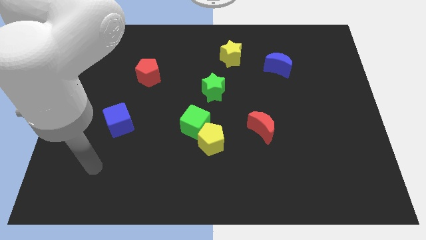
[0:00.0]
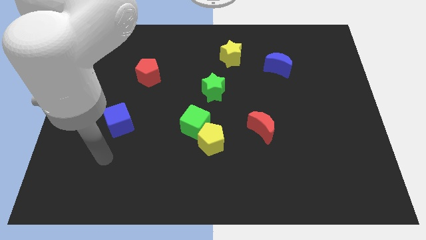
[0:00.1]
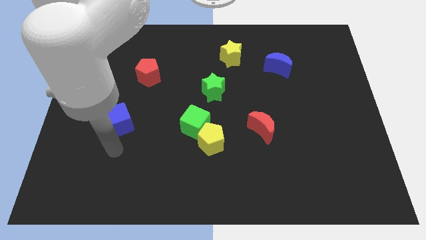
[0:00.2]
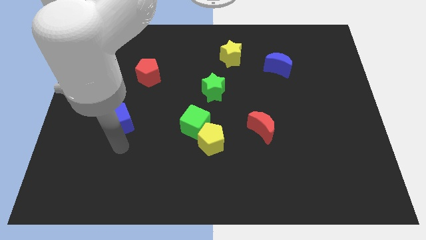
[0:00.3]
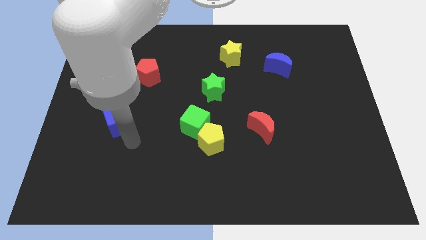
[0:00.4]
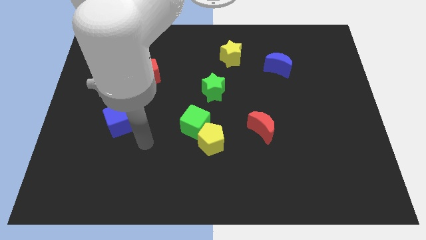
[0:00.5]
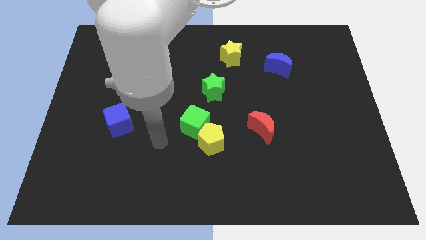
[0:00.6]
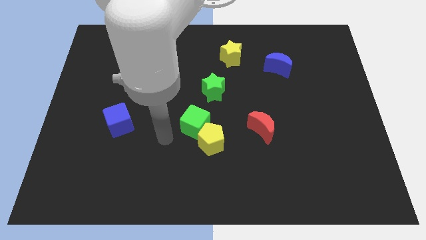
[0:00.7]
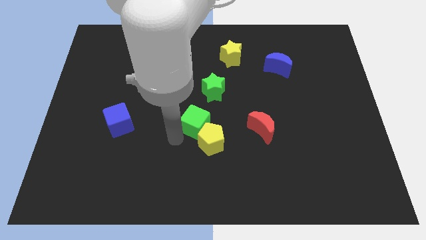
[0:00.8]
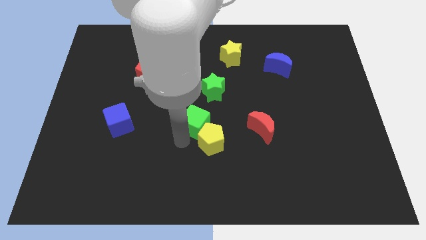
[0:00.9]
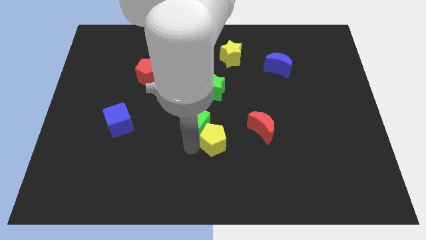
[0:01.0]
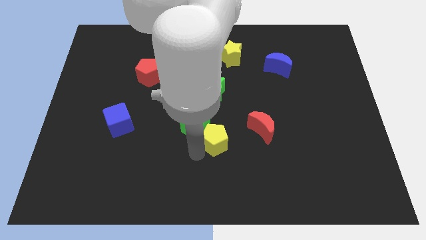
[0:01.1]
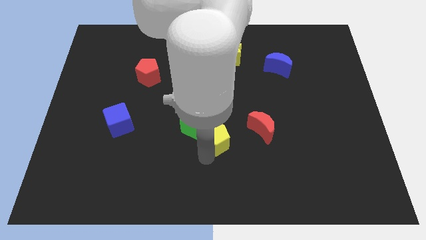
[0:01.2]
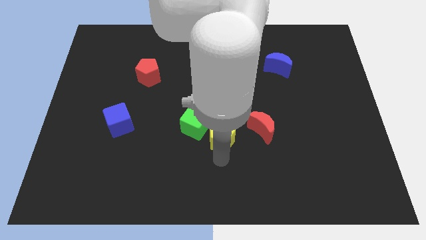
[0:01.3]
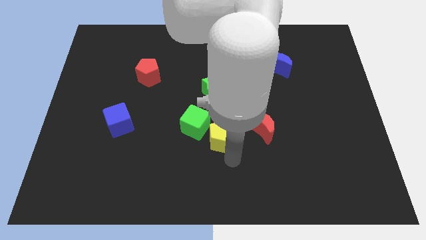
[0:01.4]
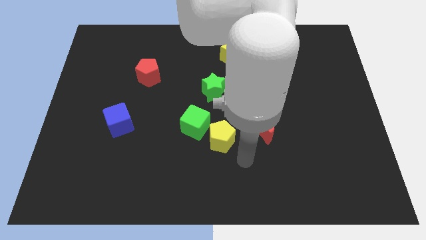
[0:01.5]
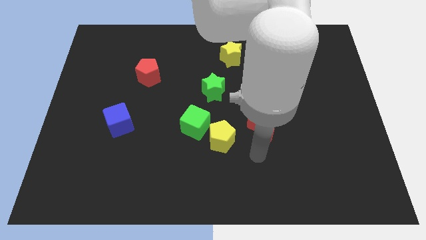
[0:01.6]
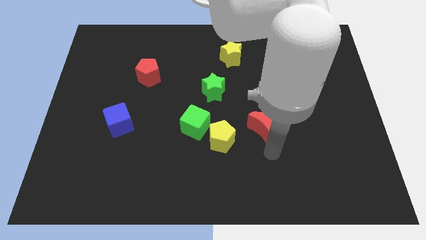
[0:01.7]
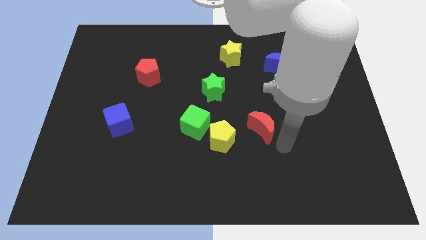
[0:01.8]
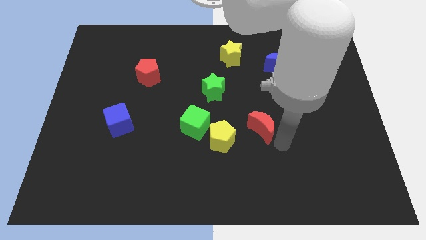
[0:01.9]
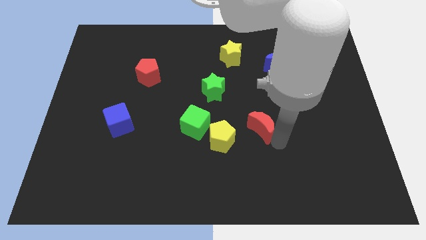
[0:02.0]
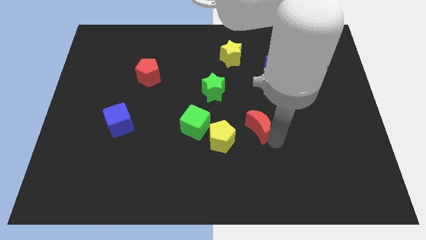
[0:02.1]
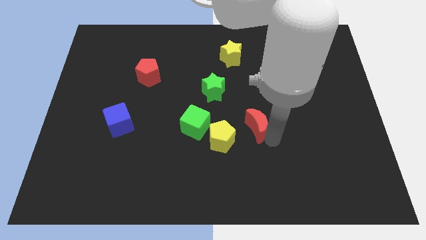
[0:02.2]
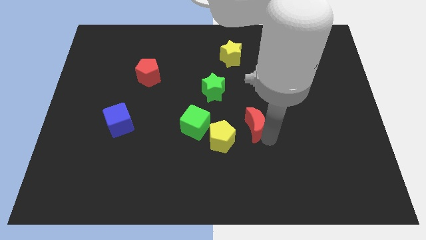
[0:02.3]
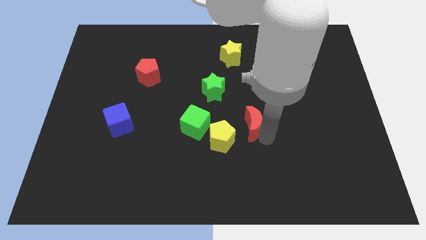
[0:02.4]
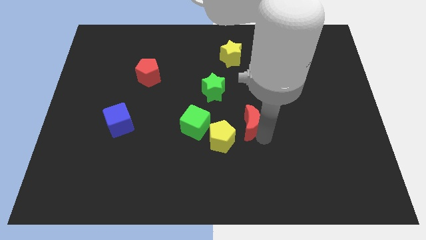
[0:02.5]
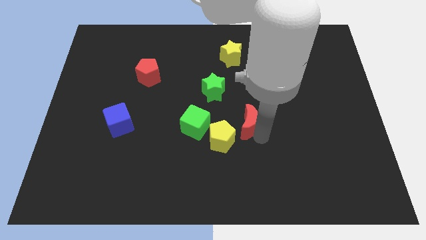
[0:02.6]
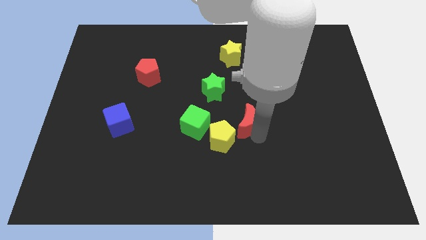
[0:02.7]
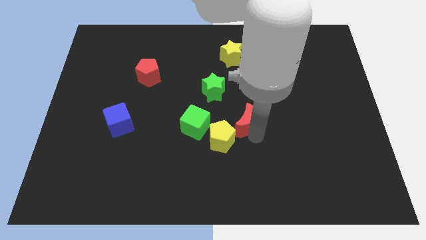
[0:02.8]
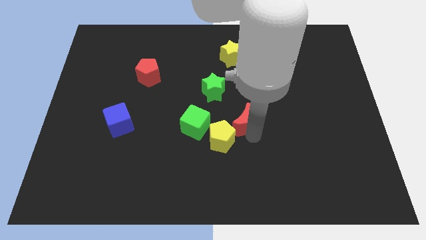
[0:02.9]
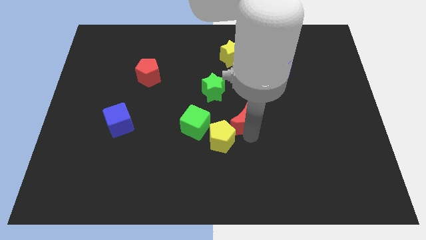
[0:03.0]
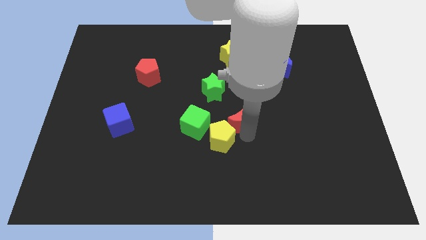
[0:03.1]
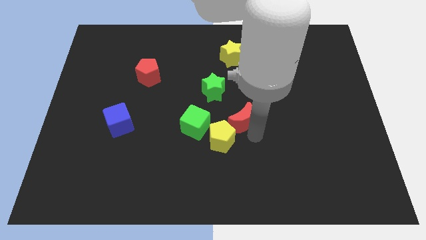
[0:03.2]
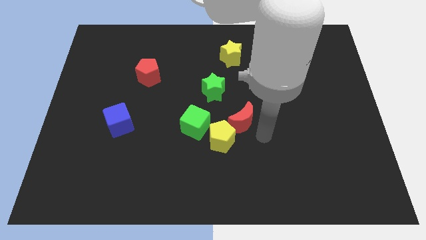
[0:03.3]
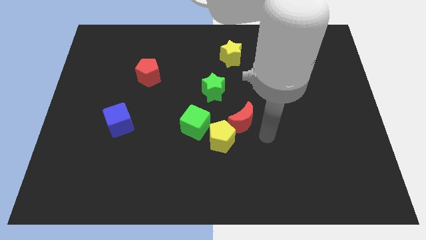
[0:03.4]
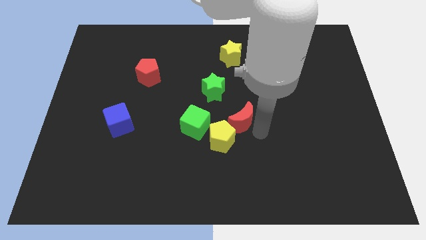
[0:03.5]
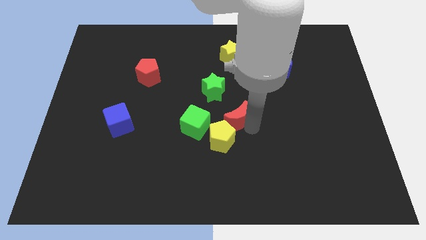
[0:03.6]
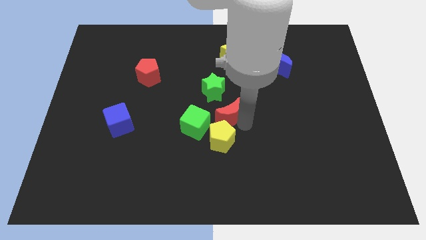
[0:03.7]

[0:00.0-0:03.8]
move the red moon slightly up and left

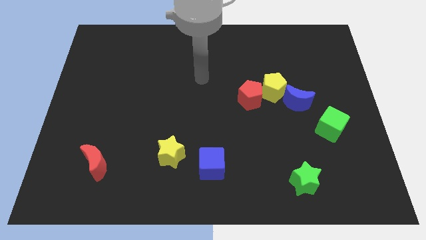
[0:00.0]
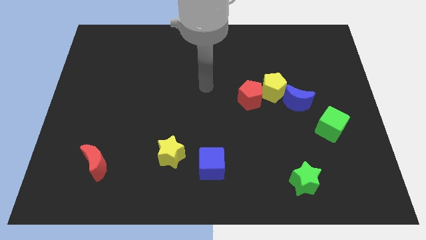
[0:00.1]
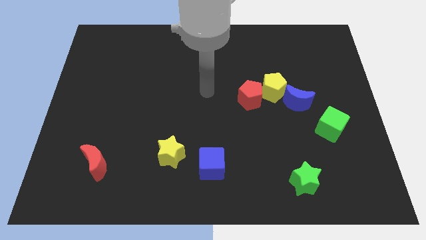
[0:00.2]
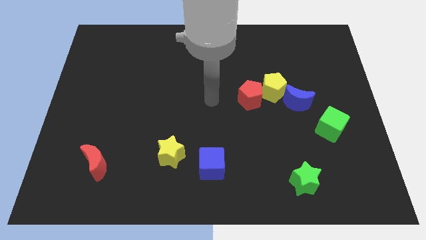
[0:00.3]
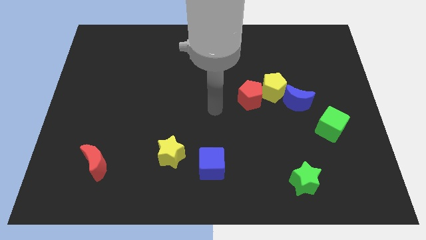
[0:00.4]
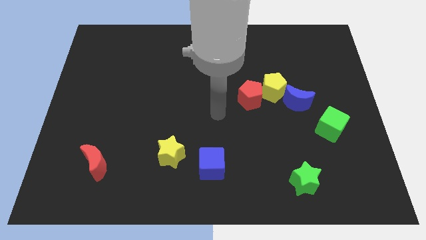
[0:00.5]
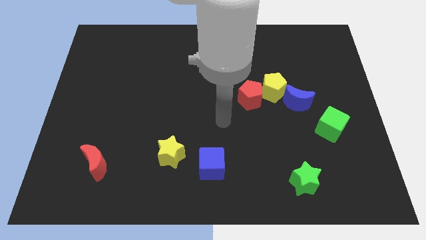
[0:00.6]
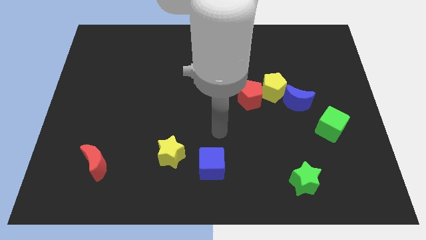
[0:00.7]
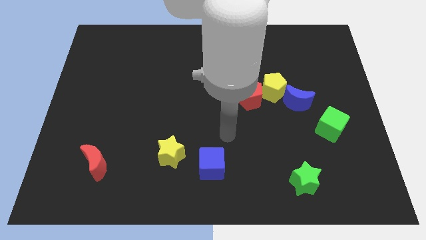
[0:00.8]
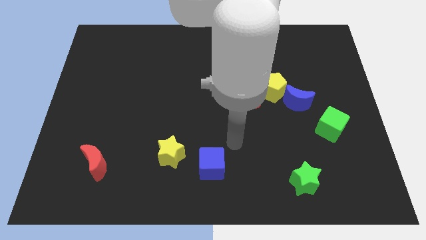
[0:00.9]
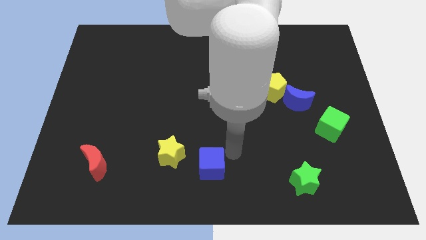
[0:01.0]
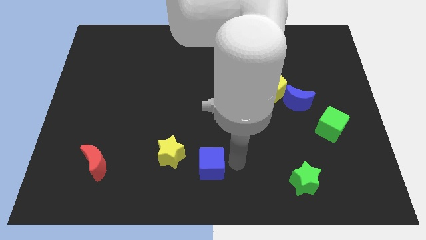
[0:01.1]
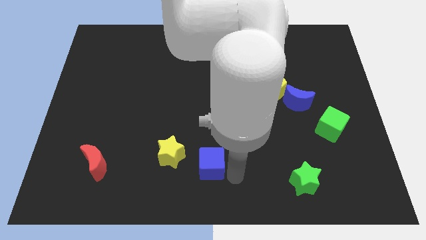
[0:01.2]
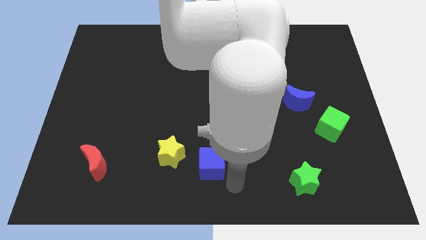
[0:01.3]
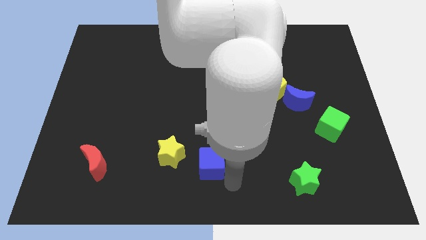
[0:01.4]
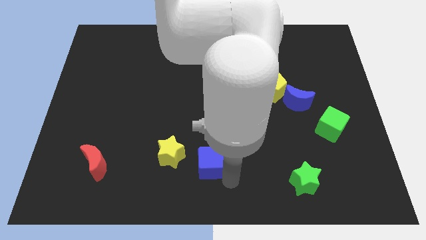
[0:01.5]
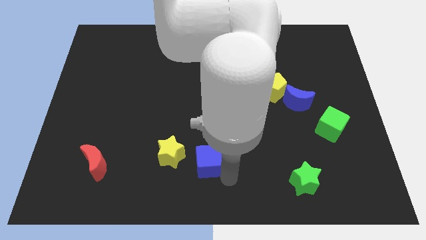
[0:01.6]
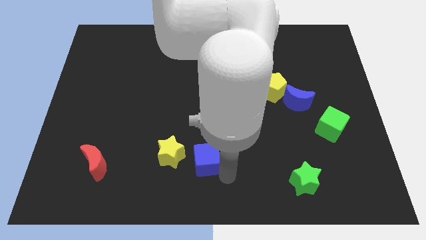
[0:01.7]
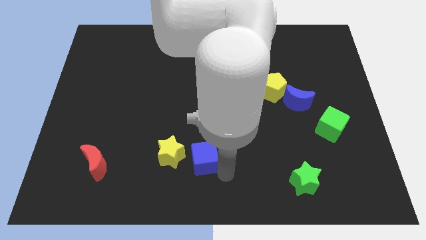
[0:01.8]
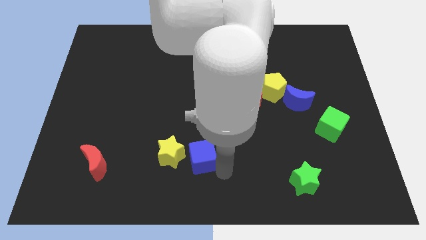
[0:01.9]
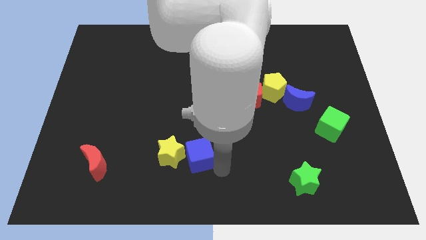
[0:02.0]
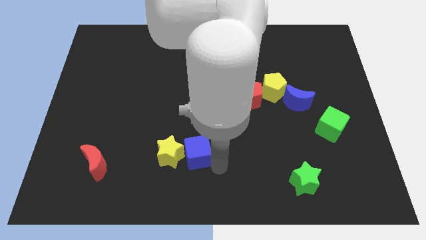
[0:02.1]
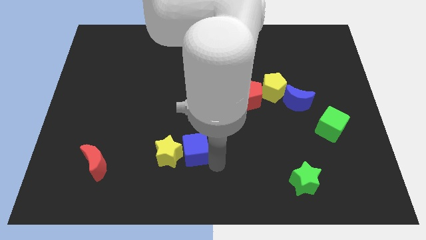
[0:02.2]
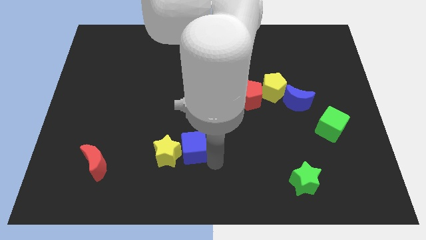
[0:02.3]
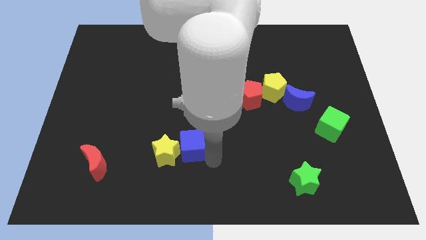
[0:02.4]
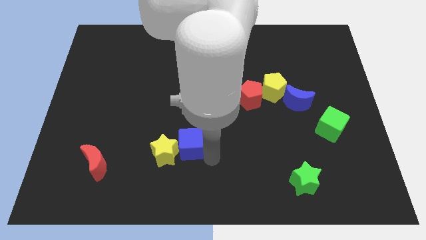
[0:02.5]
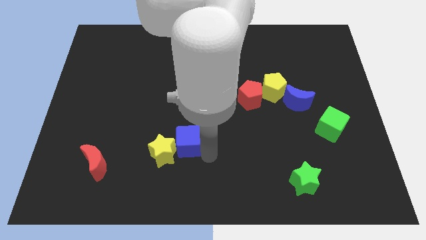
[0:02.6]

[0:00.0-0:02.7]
slide the blue cube a little up and then left

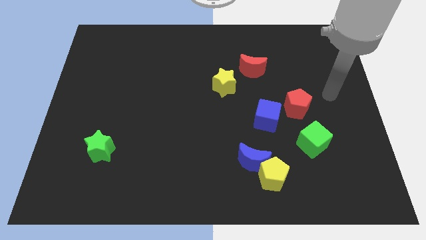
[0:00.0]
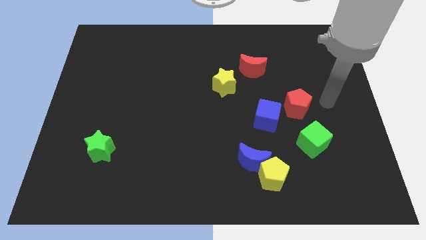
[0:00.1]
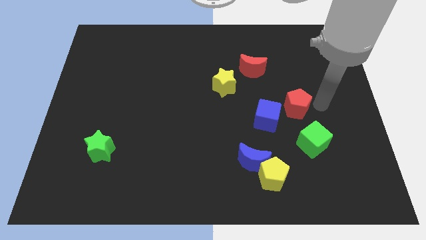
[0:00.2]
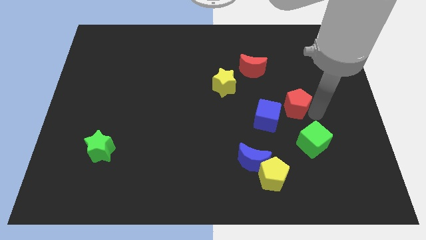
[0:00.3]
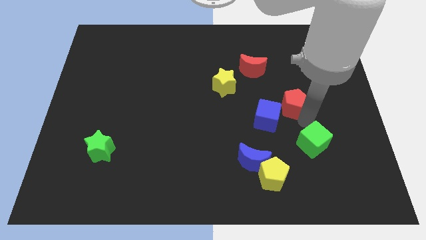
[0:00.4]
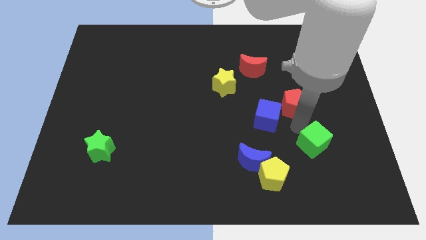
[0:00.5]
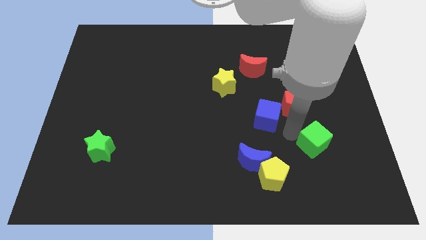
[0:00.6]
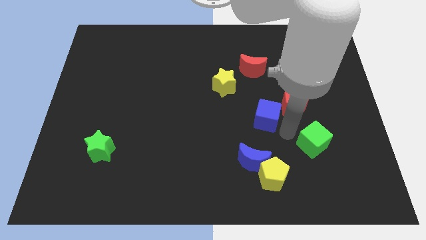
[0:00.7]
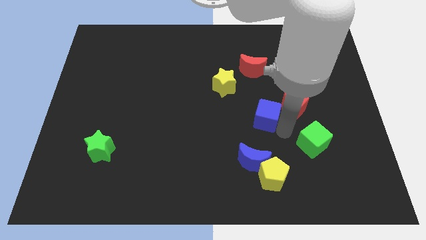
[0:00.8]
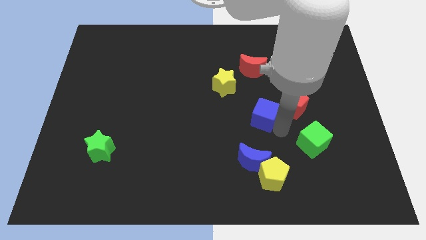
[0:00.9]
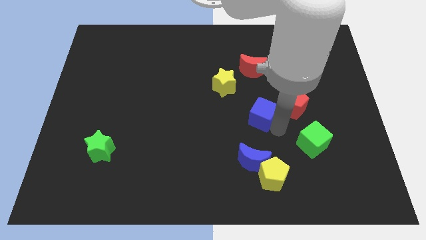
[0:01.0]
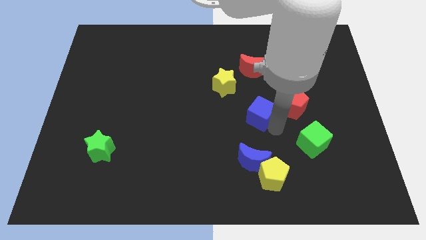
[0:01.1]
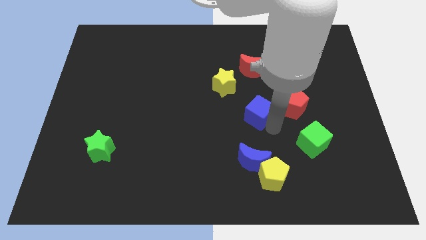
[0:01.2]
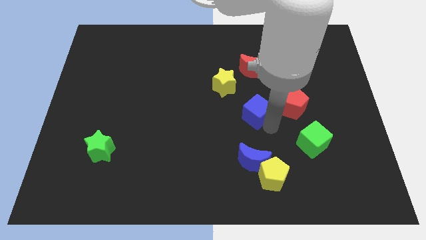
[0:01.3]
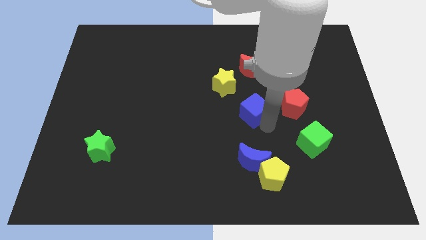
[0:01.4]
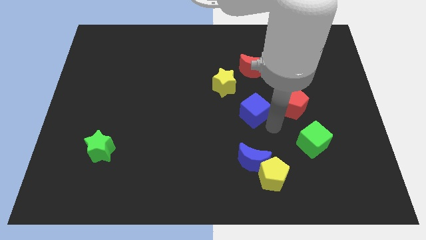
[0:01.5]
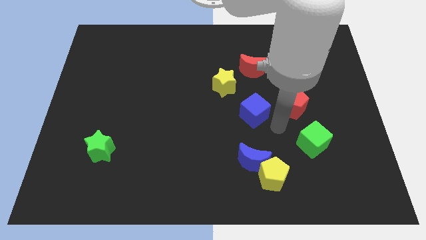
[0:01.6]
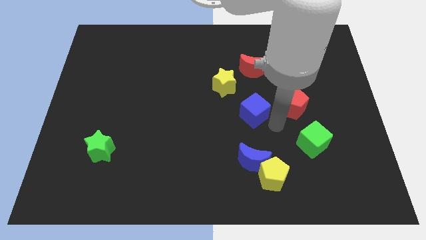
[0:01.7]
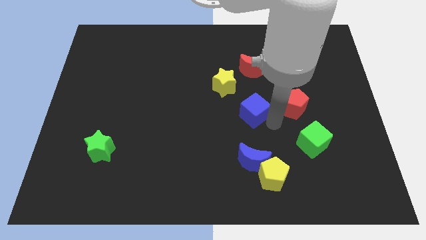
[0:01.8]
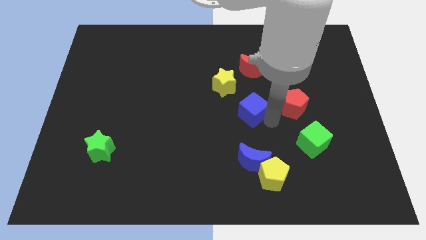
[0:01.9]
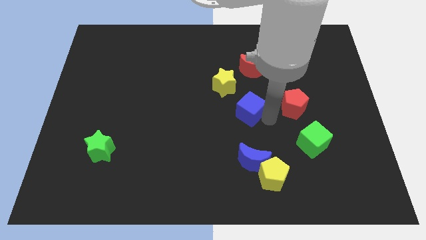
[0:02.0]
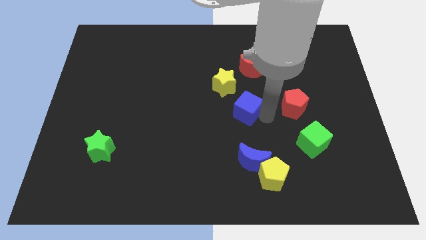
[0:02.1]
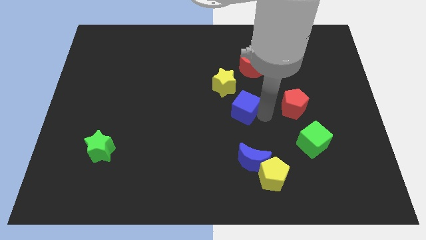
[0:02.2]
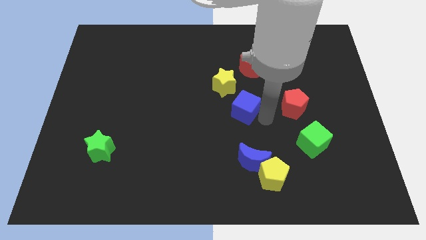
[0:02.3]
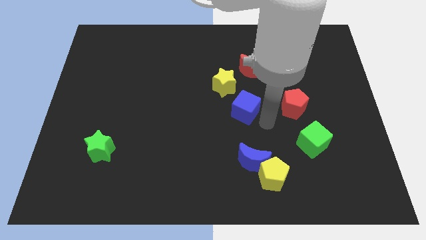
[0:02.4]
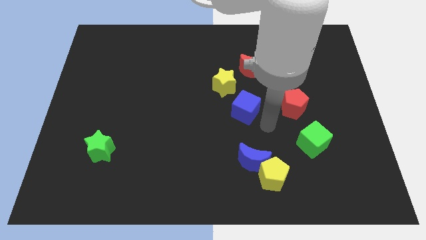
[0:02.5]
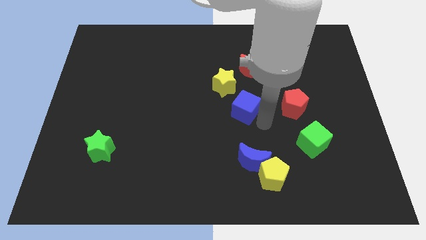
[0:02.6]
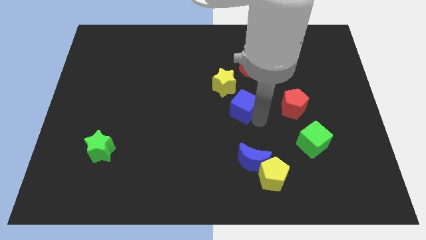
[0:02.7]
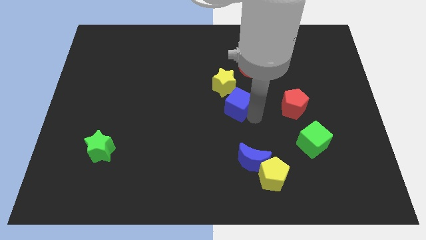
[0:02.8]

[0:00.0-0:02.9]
push the blue cube upwards and to the left a little
